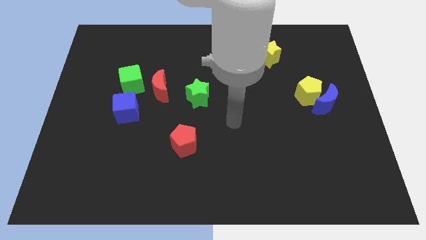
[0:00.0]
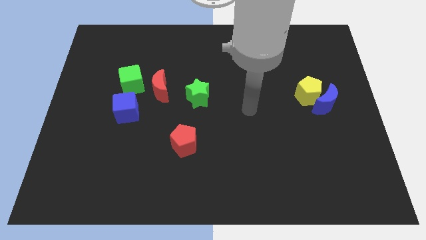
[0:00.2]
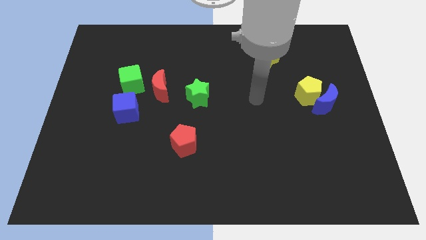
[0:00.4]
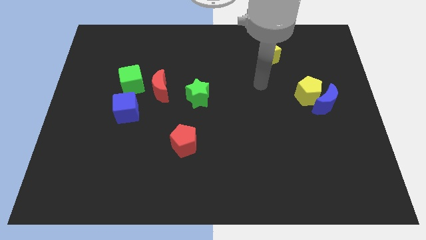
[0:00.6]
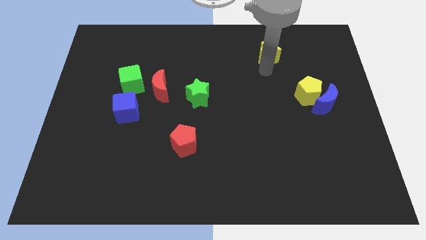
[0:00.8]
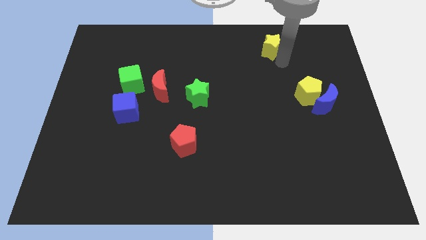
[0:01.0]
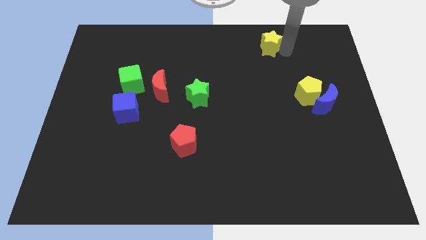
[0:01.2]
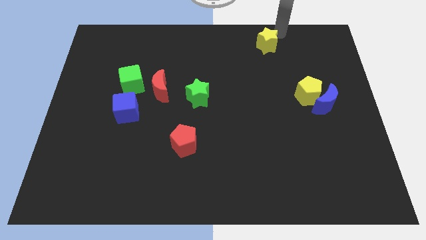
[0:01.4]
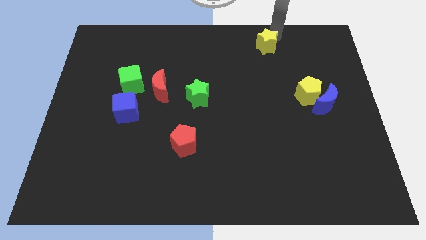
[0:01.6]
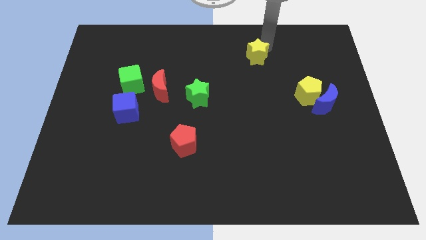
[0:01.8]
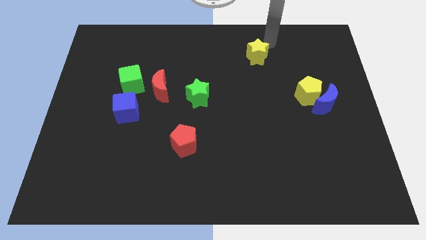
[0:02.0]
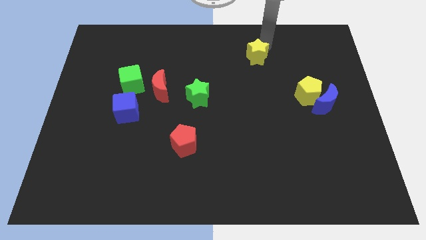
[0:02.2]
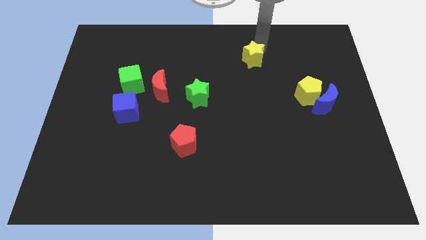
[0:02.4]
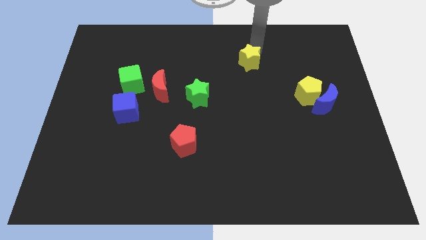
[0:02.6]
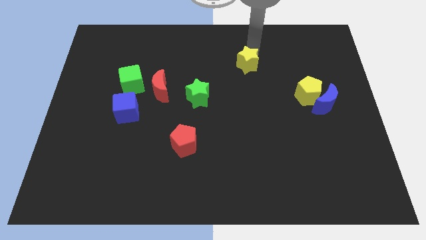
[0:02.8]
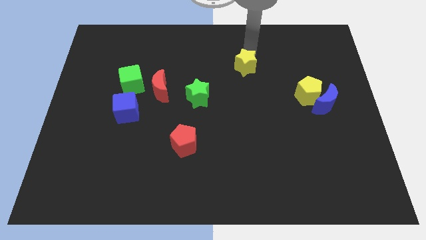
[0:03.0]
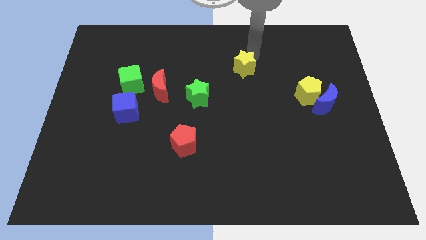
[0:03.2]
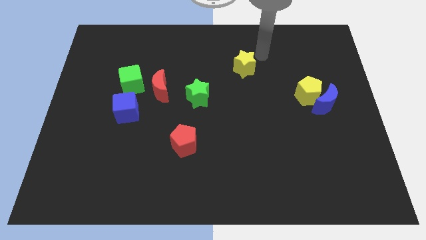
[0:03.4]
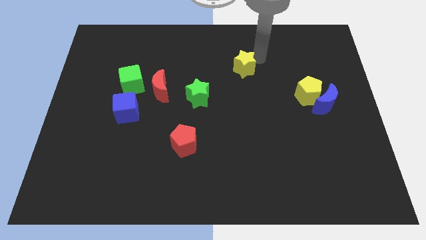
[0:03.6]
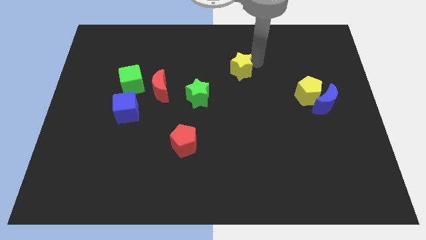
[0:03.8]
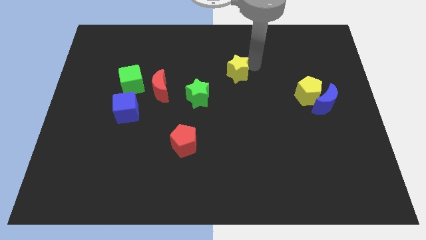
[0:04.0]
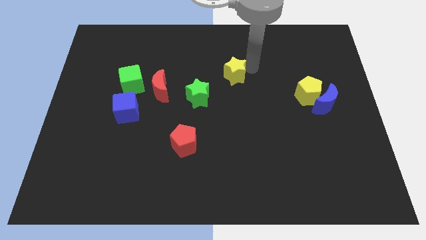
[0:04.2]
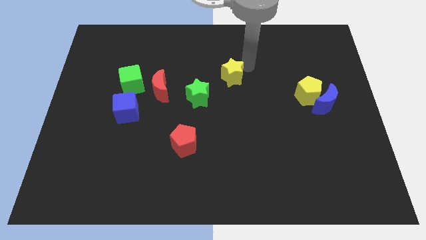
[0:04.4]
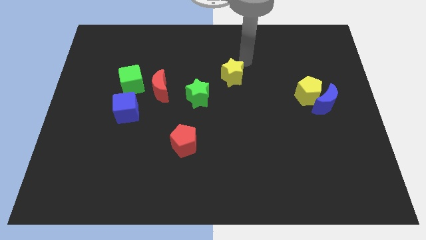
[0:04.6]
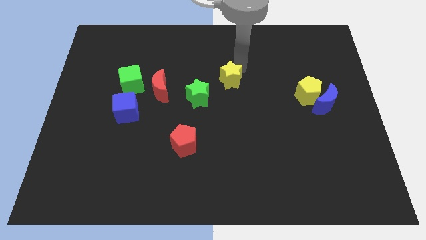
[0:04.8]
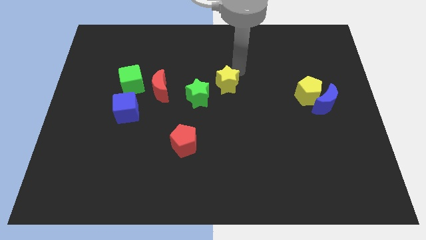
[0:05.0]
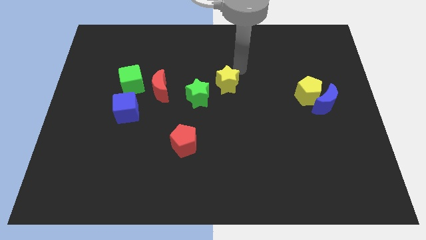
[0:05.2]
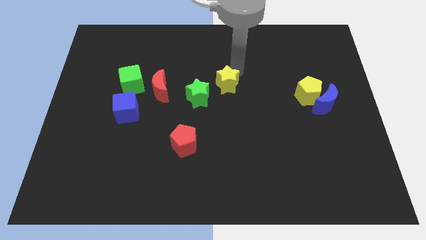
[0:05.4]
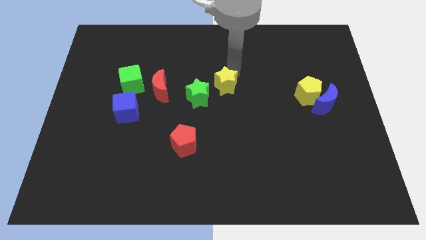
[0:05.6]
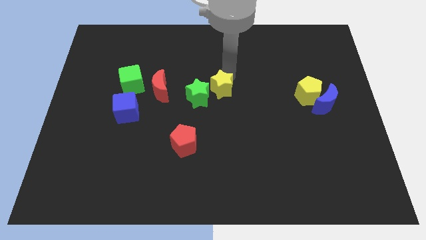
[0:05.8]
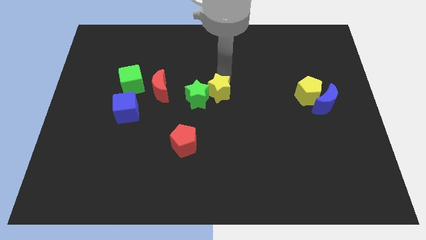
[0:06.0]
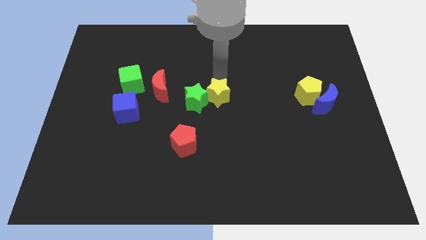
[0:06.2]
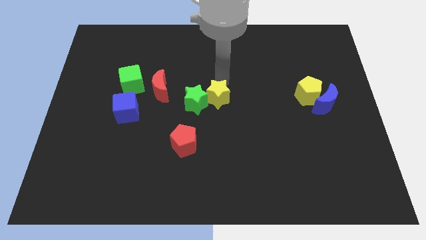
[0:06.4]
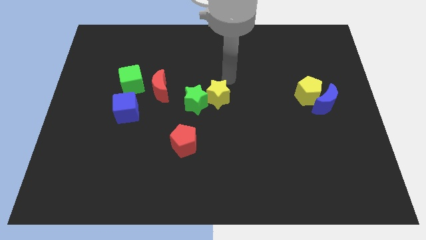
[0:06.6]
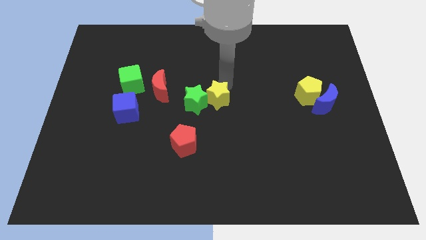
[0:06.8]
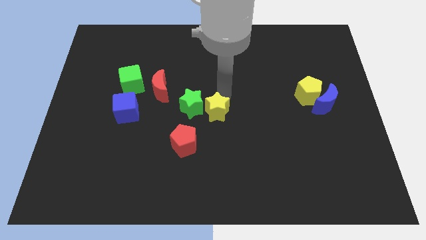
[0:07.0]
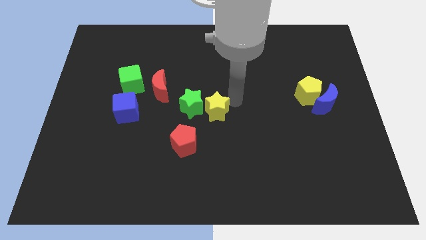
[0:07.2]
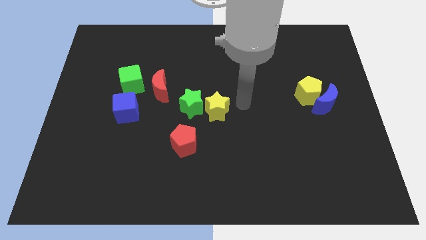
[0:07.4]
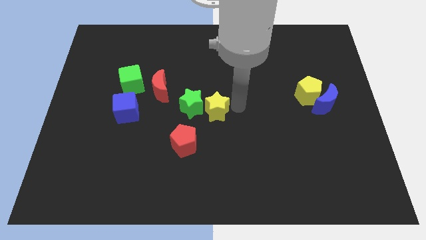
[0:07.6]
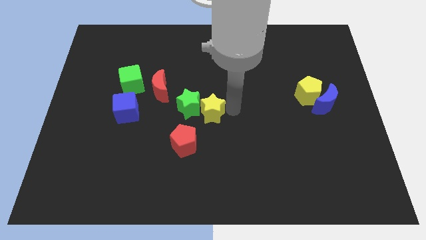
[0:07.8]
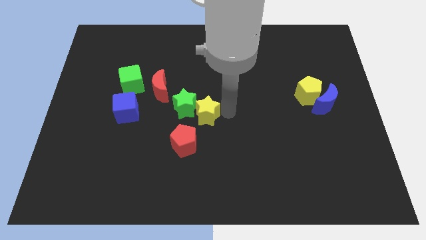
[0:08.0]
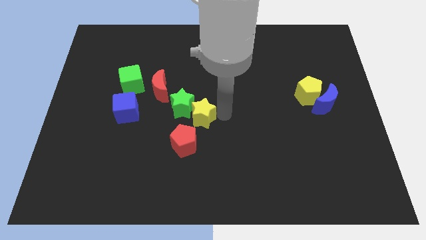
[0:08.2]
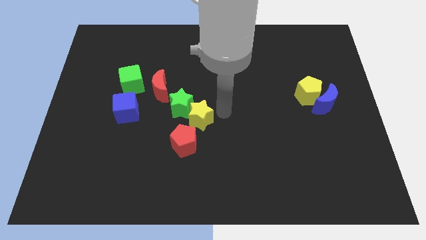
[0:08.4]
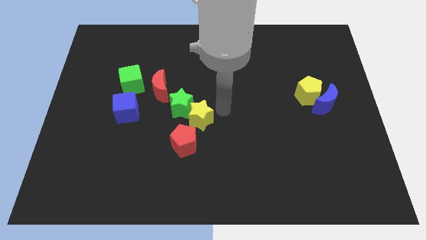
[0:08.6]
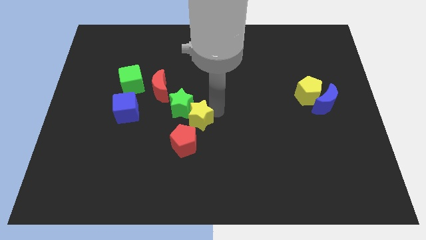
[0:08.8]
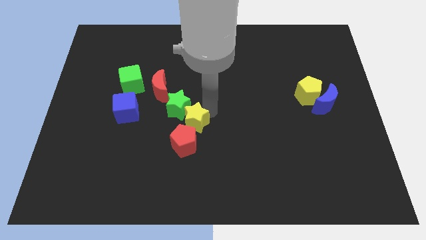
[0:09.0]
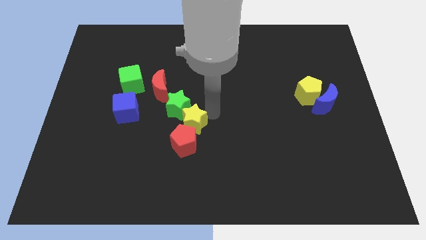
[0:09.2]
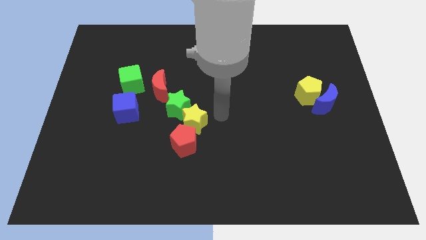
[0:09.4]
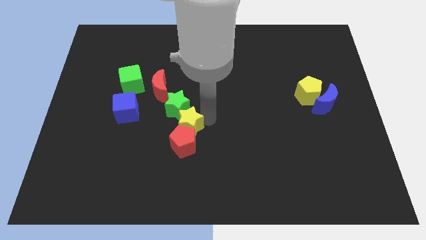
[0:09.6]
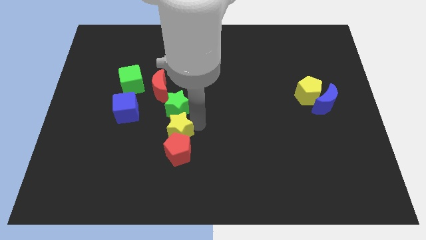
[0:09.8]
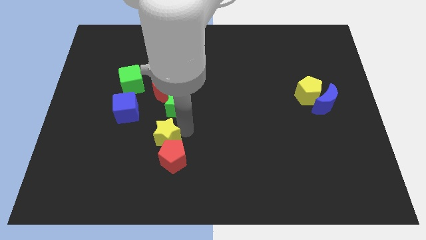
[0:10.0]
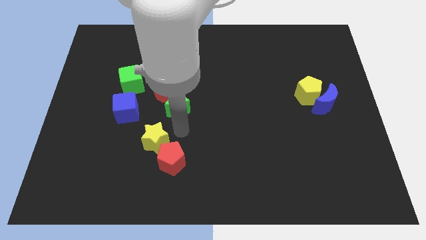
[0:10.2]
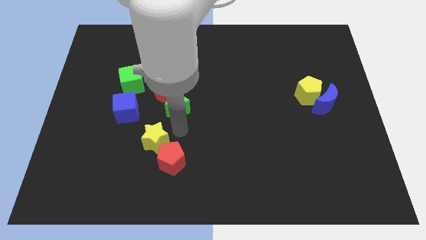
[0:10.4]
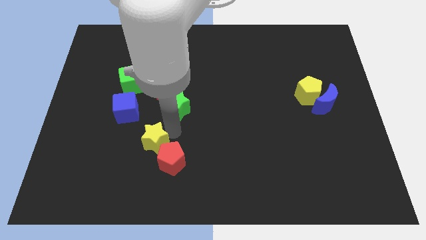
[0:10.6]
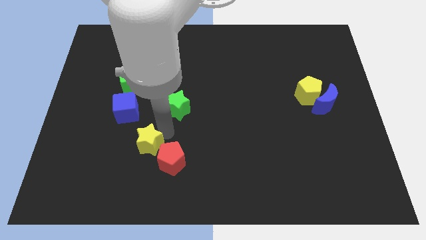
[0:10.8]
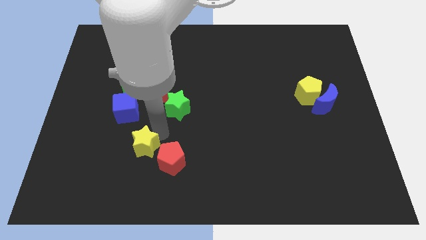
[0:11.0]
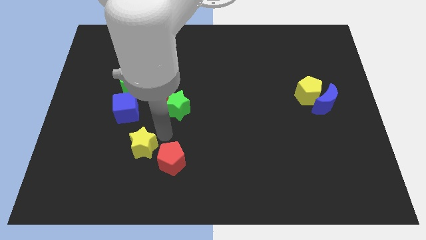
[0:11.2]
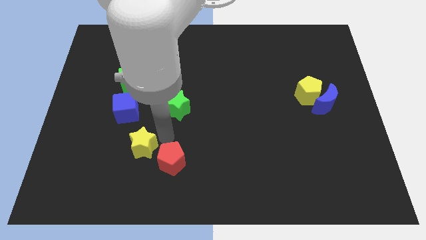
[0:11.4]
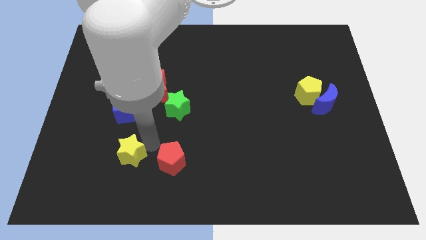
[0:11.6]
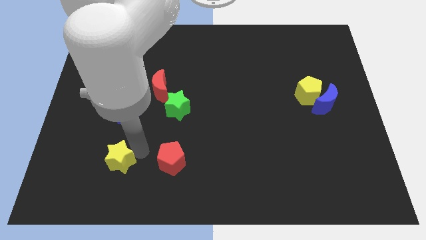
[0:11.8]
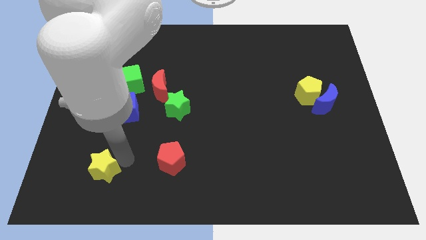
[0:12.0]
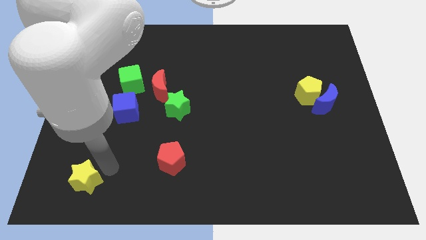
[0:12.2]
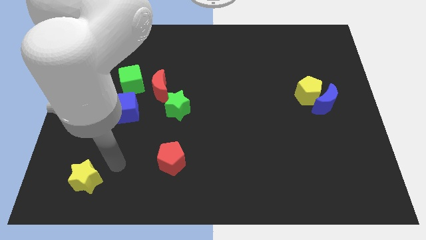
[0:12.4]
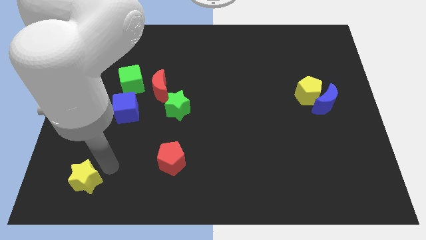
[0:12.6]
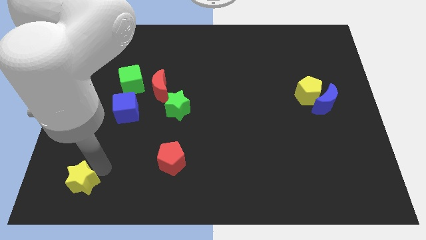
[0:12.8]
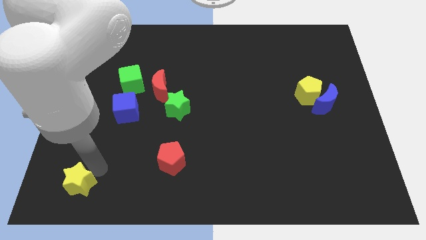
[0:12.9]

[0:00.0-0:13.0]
put the yellow star to the lower left corner

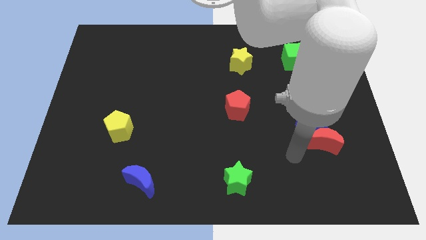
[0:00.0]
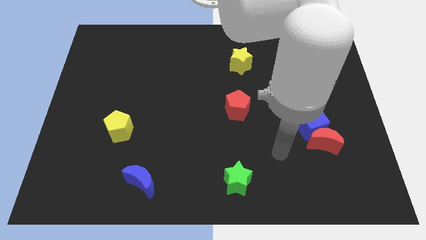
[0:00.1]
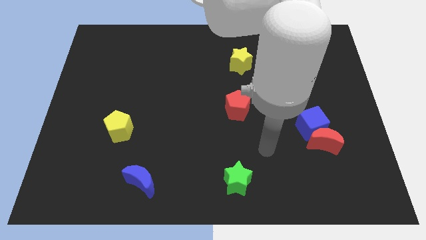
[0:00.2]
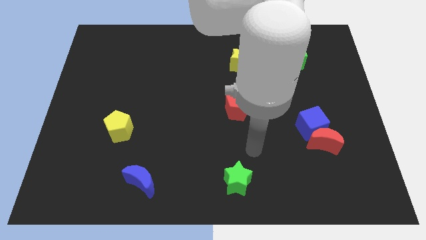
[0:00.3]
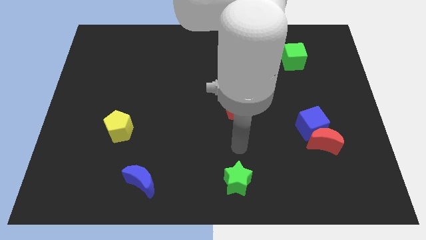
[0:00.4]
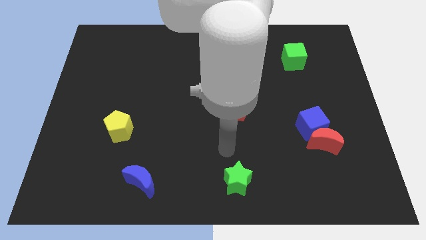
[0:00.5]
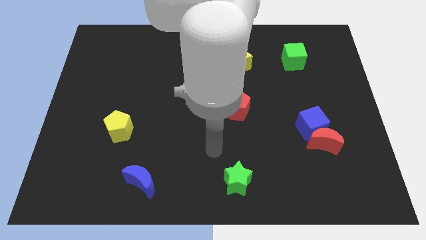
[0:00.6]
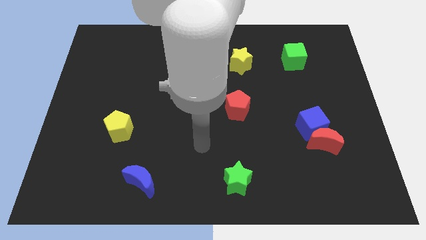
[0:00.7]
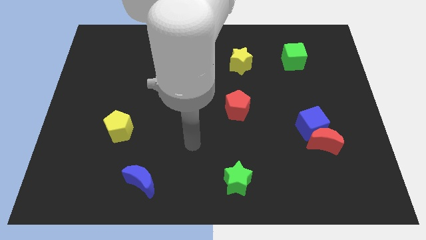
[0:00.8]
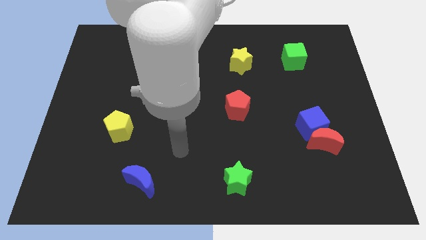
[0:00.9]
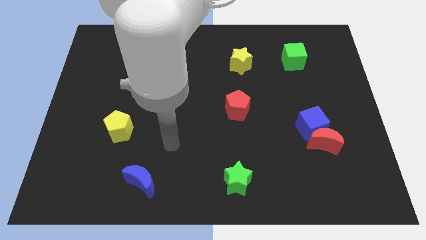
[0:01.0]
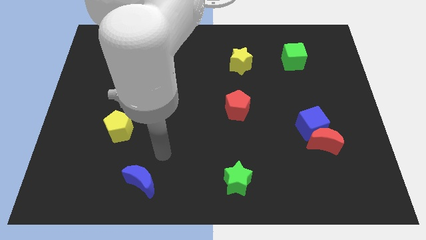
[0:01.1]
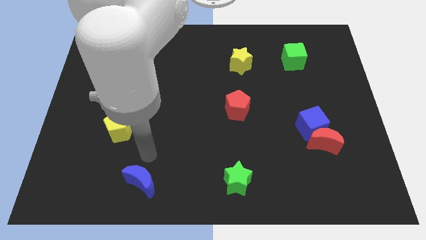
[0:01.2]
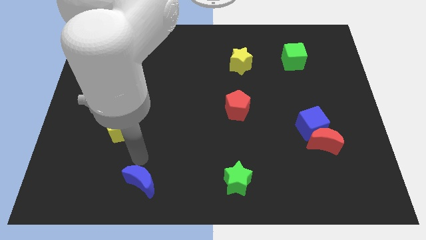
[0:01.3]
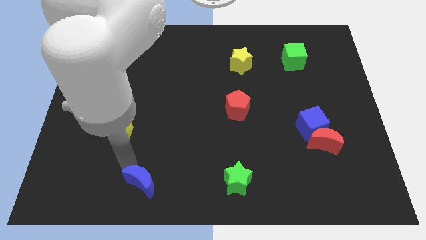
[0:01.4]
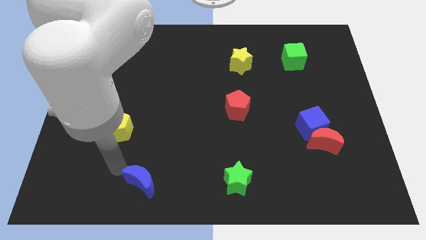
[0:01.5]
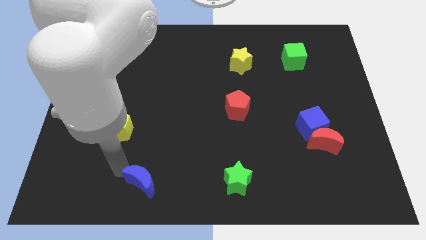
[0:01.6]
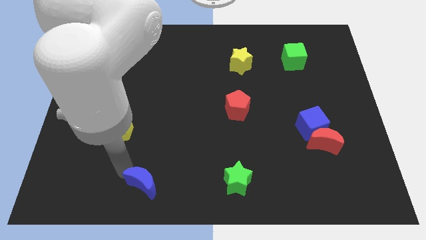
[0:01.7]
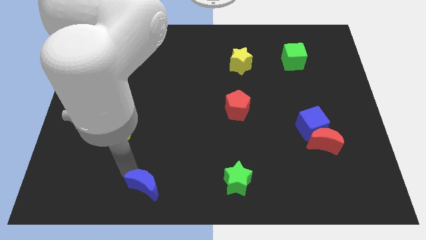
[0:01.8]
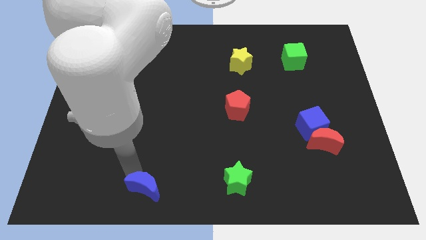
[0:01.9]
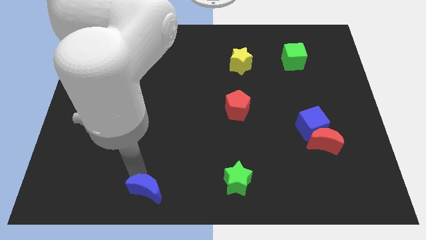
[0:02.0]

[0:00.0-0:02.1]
move the blue moon to the bottom
